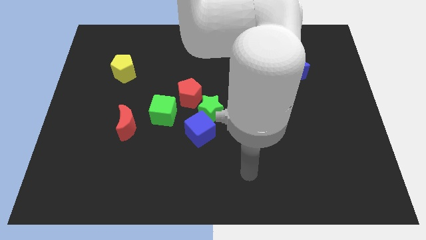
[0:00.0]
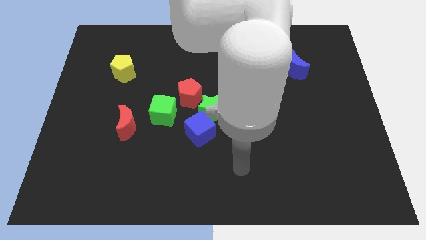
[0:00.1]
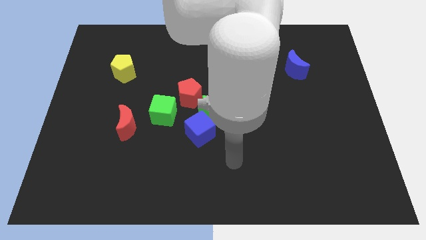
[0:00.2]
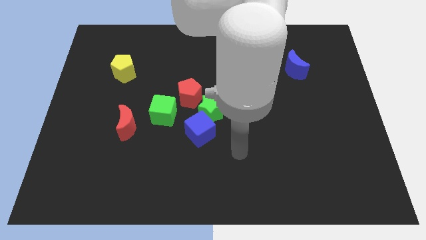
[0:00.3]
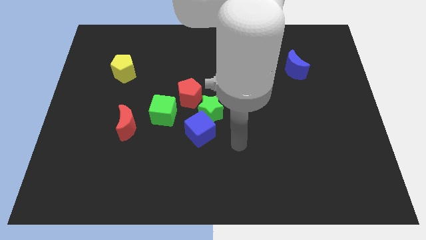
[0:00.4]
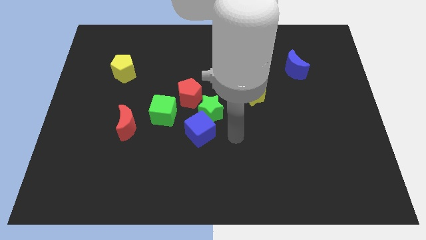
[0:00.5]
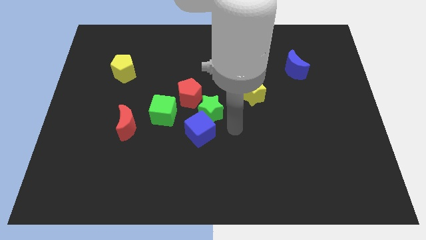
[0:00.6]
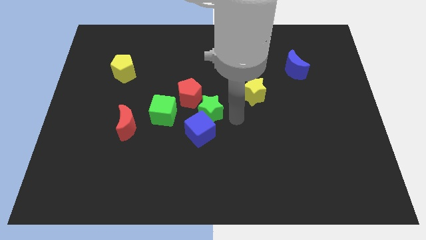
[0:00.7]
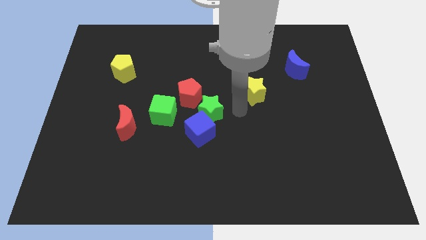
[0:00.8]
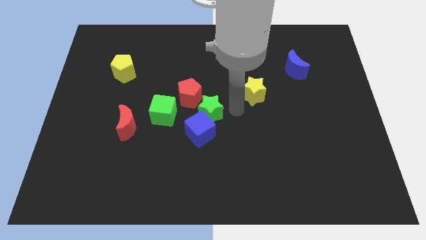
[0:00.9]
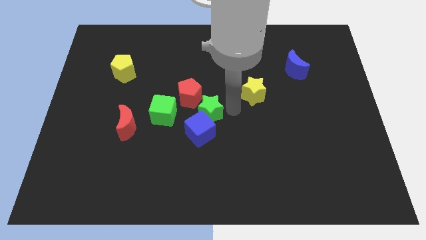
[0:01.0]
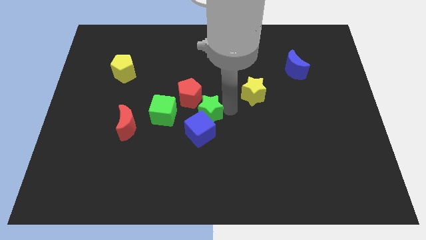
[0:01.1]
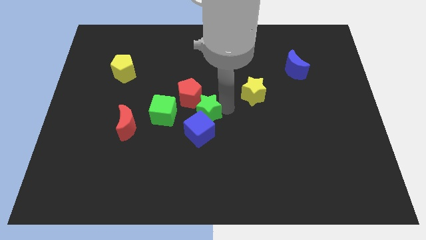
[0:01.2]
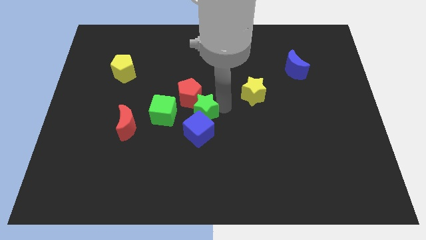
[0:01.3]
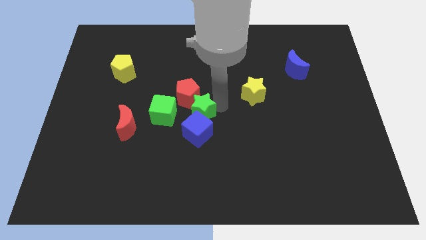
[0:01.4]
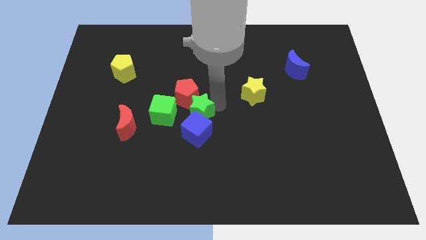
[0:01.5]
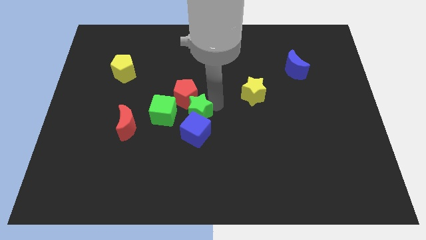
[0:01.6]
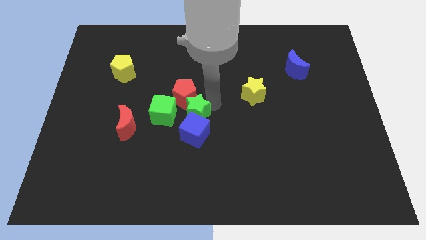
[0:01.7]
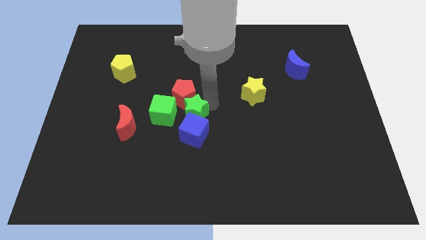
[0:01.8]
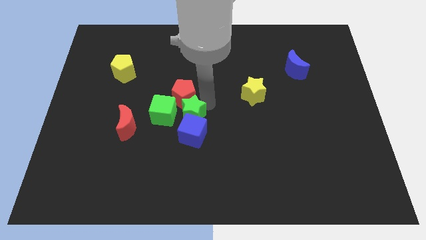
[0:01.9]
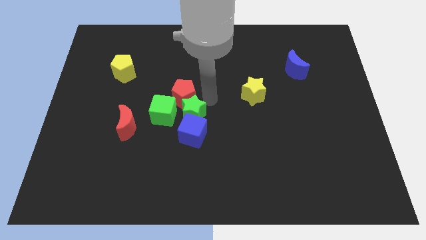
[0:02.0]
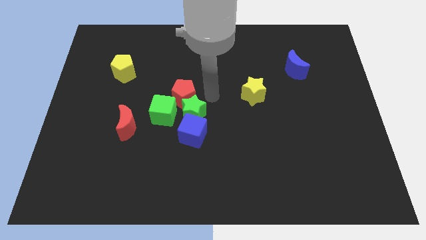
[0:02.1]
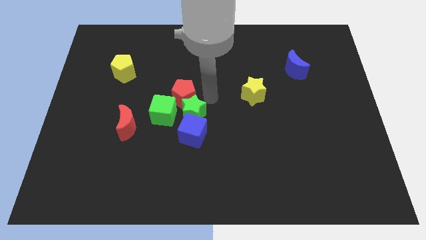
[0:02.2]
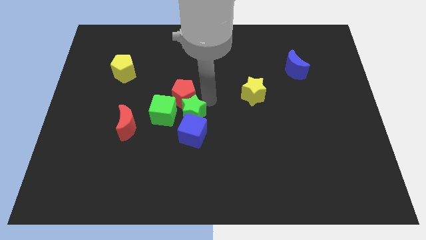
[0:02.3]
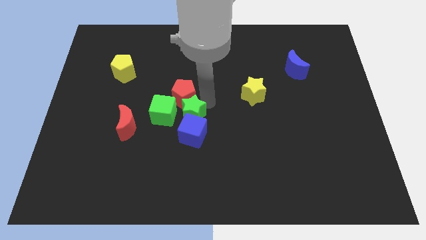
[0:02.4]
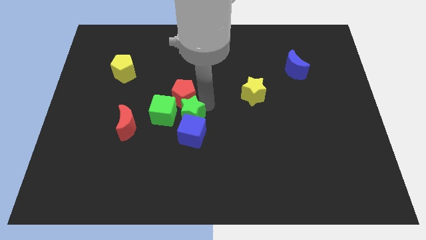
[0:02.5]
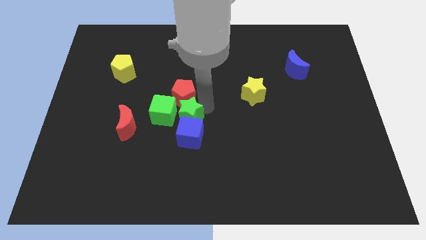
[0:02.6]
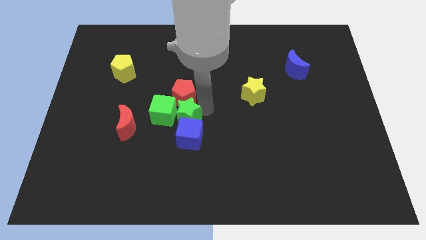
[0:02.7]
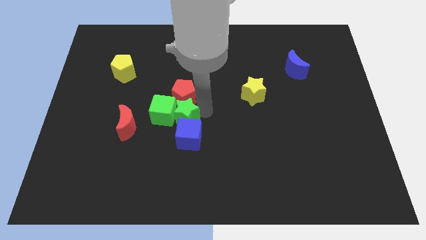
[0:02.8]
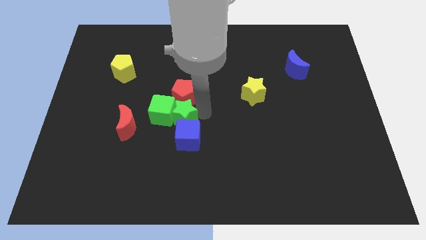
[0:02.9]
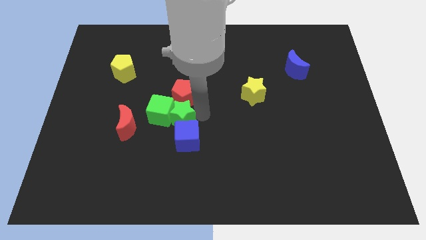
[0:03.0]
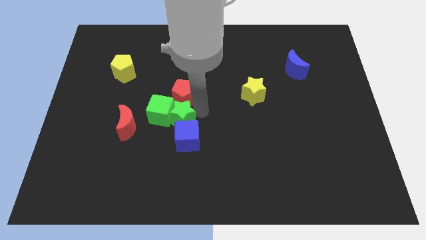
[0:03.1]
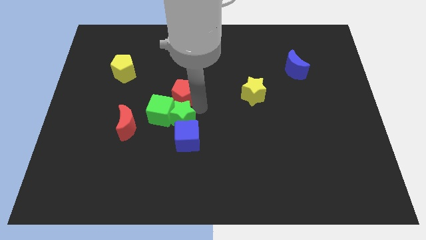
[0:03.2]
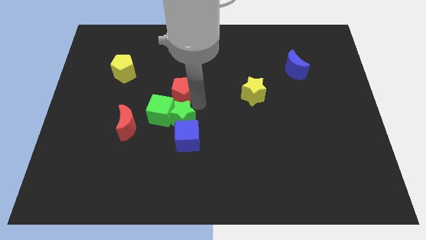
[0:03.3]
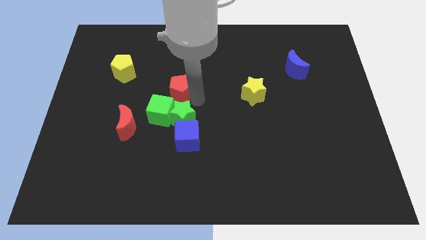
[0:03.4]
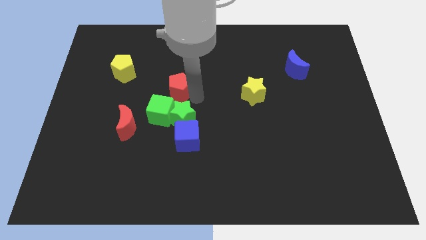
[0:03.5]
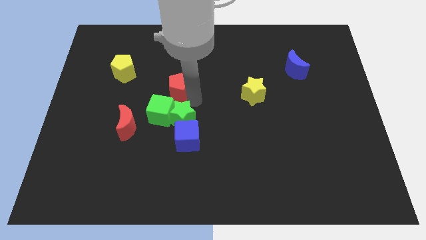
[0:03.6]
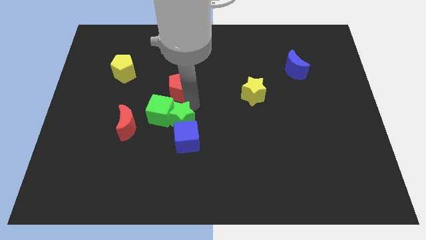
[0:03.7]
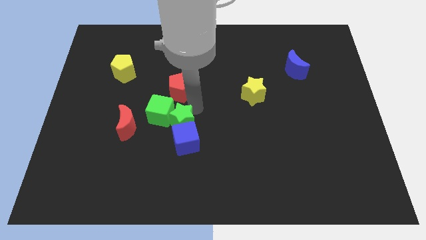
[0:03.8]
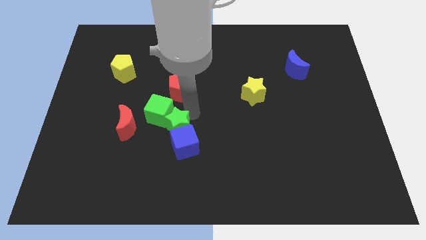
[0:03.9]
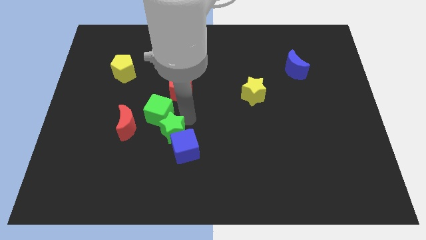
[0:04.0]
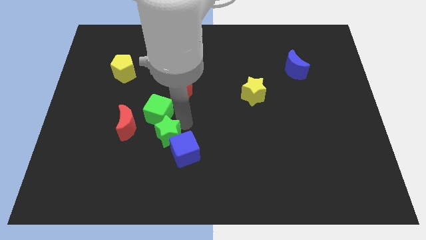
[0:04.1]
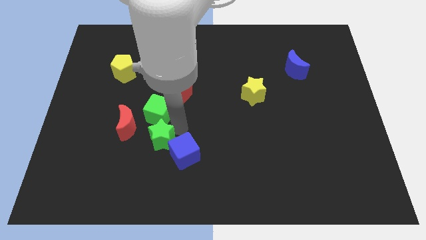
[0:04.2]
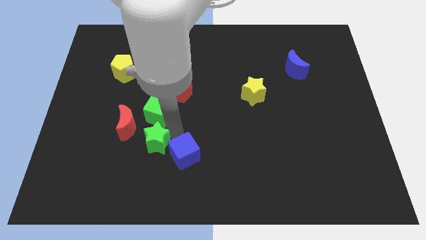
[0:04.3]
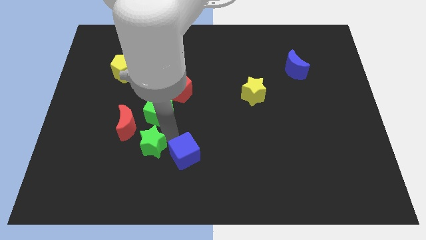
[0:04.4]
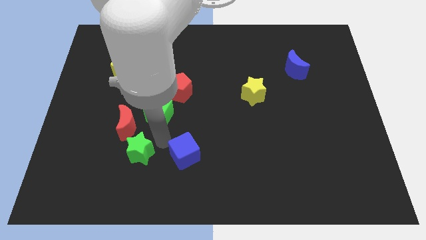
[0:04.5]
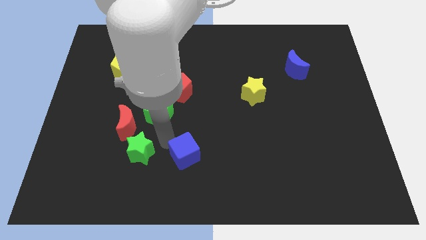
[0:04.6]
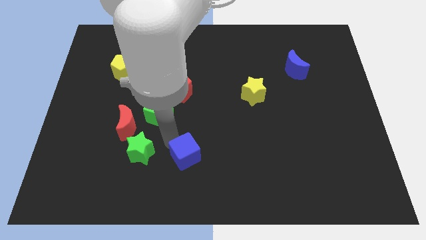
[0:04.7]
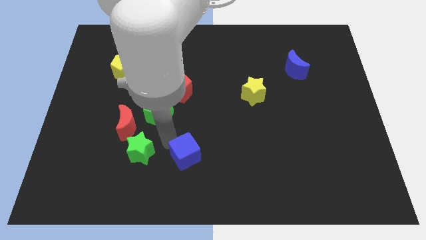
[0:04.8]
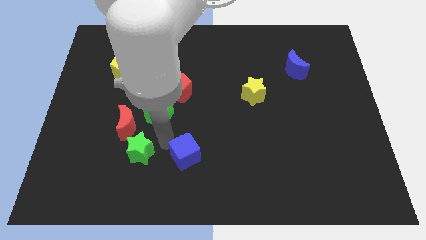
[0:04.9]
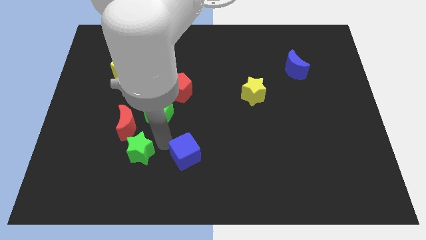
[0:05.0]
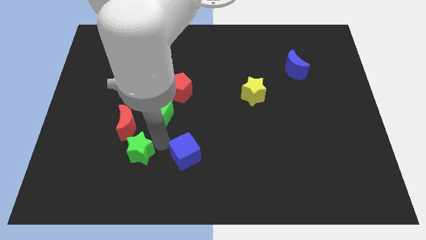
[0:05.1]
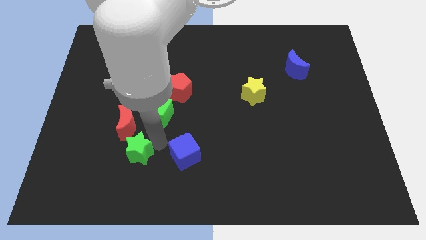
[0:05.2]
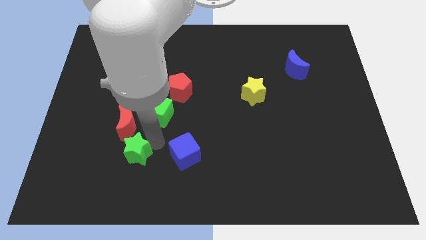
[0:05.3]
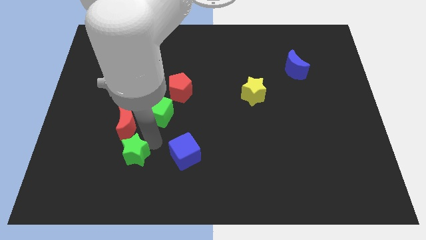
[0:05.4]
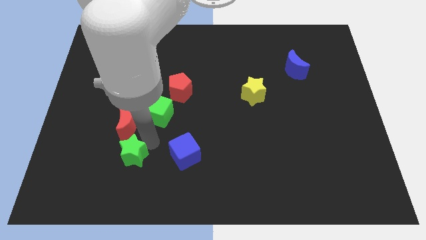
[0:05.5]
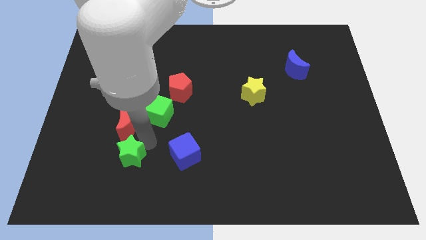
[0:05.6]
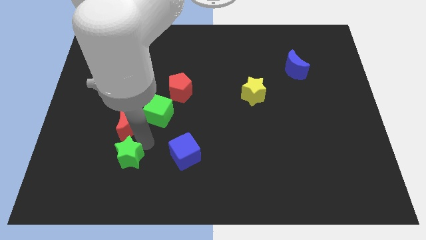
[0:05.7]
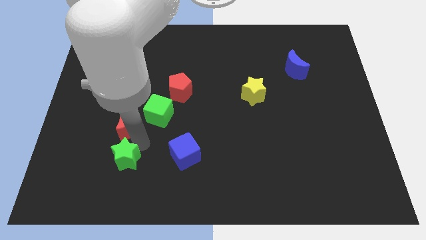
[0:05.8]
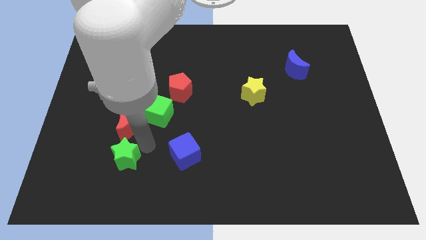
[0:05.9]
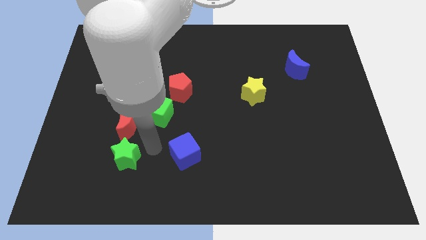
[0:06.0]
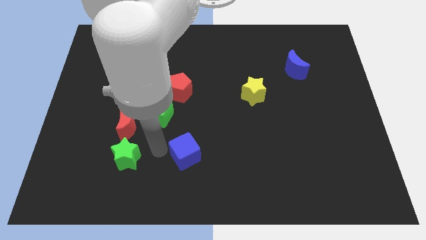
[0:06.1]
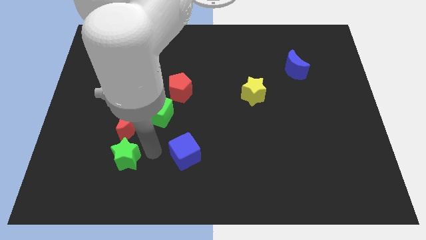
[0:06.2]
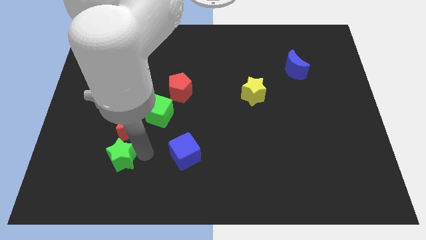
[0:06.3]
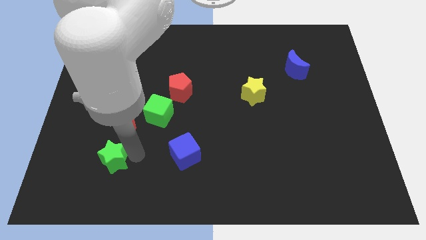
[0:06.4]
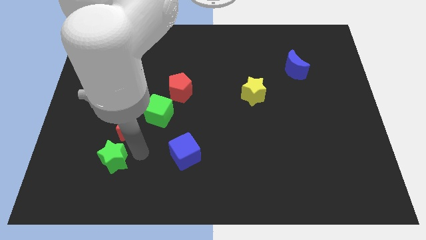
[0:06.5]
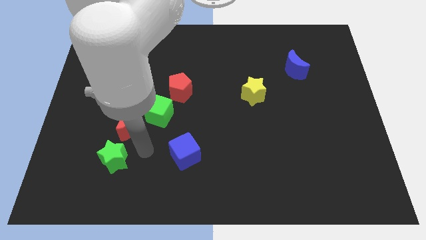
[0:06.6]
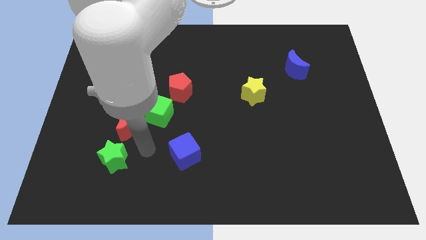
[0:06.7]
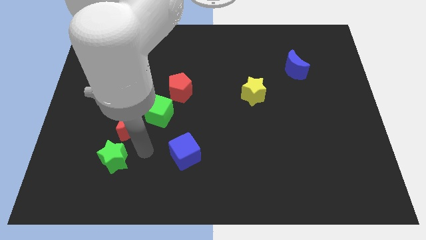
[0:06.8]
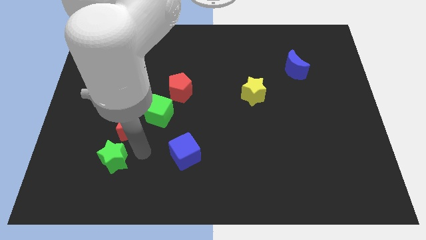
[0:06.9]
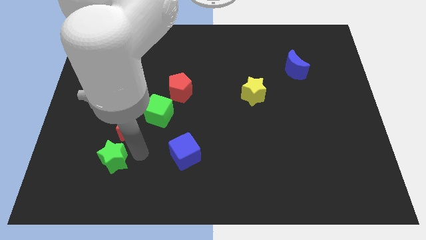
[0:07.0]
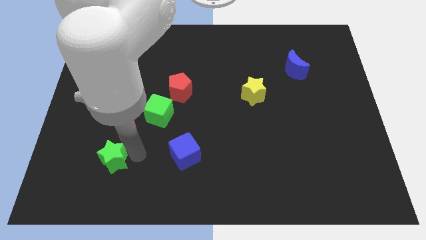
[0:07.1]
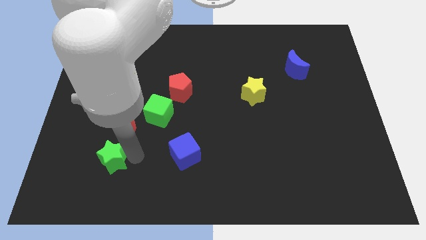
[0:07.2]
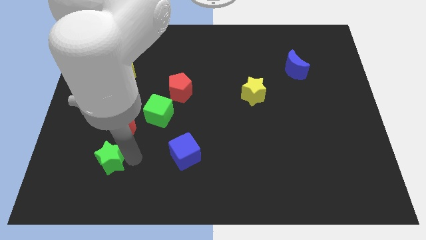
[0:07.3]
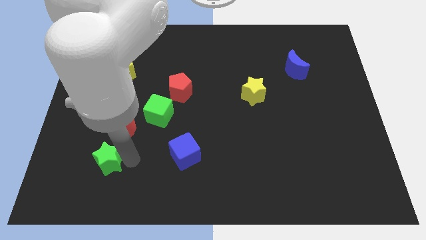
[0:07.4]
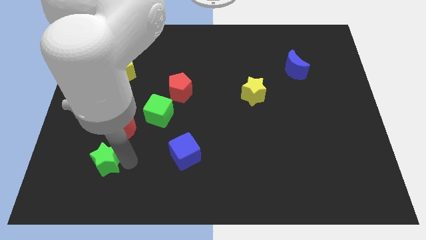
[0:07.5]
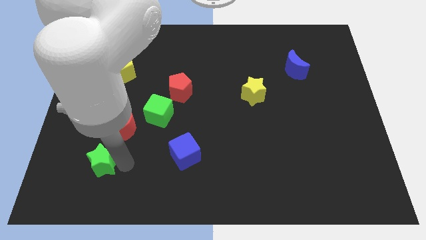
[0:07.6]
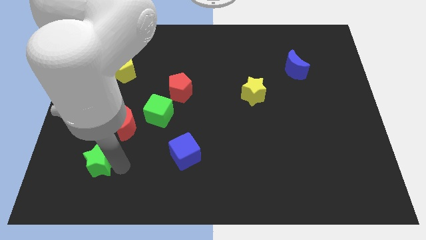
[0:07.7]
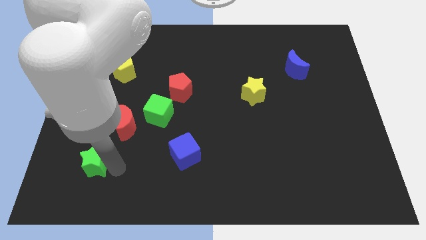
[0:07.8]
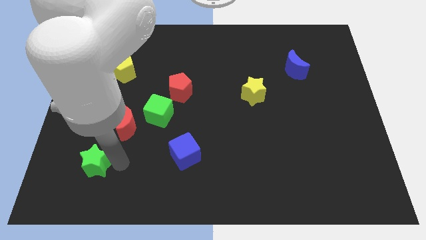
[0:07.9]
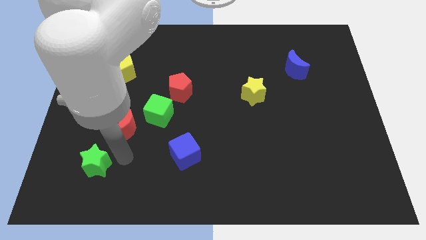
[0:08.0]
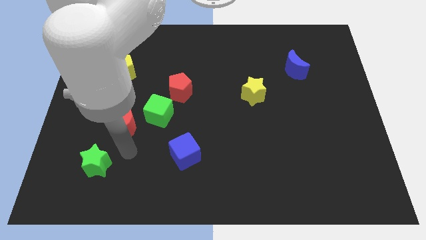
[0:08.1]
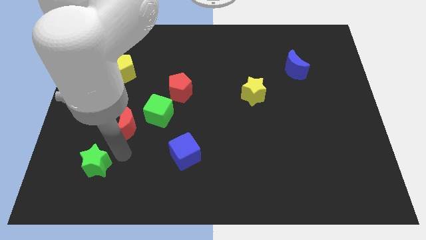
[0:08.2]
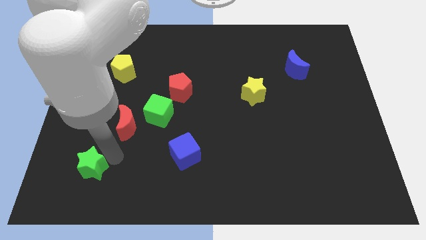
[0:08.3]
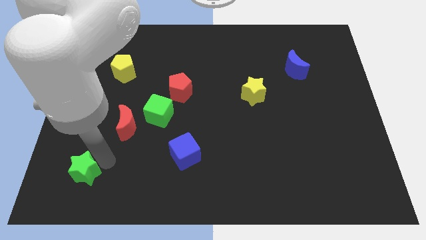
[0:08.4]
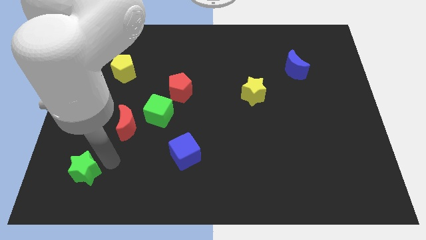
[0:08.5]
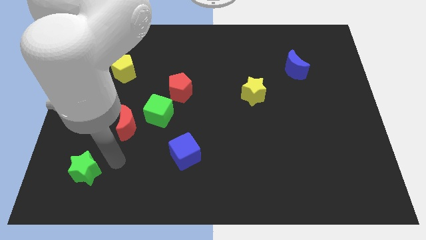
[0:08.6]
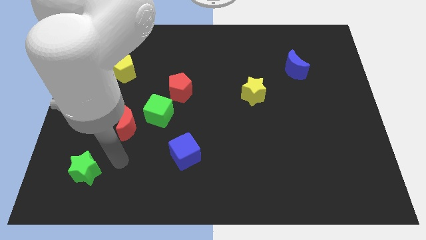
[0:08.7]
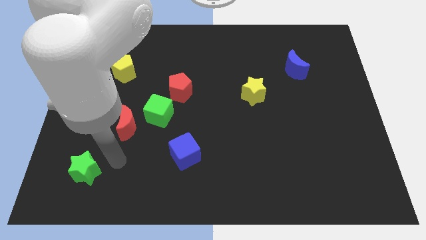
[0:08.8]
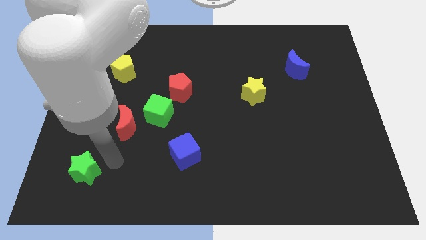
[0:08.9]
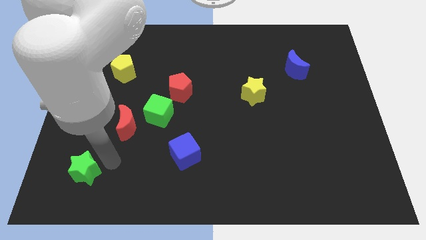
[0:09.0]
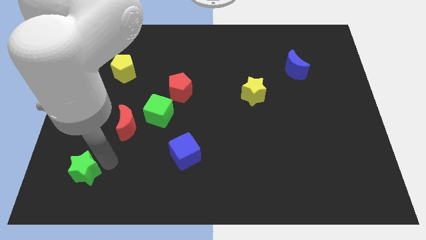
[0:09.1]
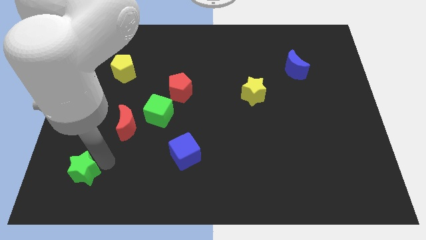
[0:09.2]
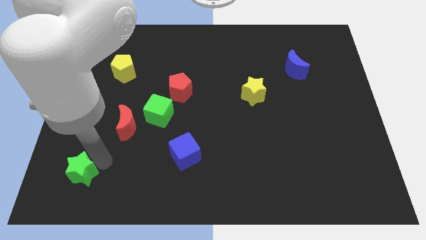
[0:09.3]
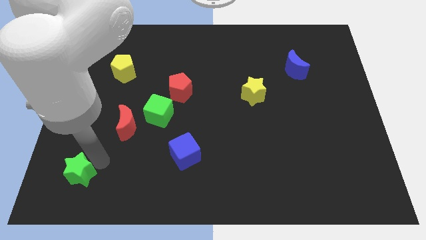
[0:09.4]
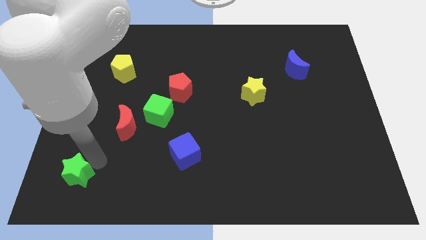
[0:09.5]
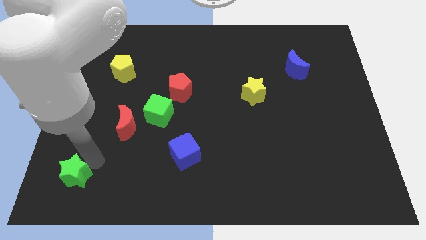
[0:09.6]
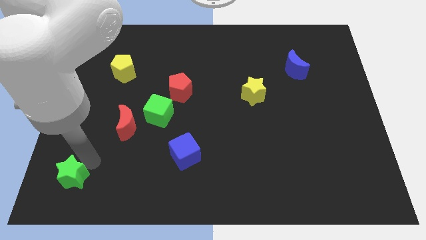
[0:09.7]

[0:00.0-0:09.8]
move the green star to the lower left corner
